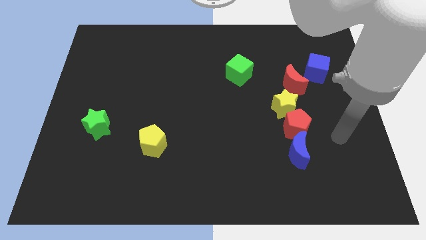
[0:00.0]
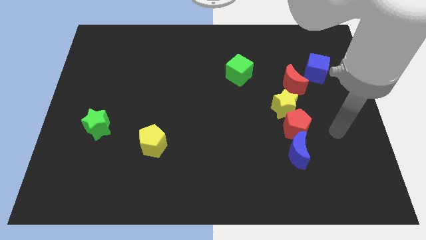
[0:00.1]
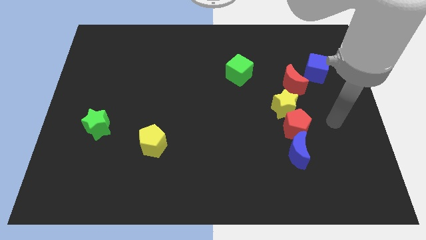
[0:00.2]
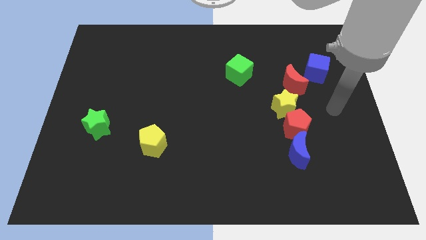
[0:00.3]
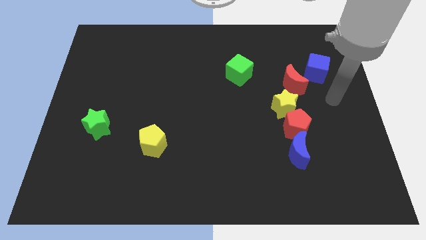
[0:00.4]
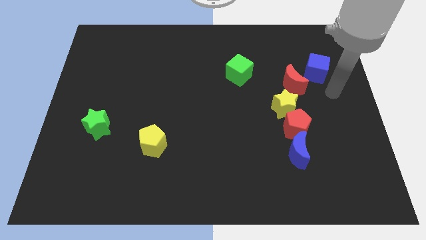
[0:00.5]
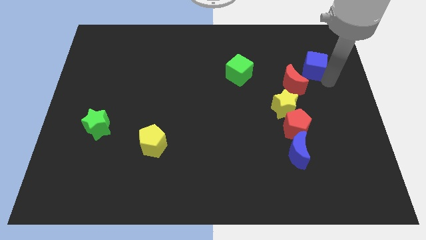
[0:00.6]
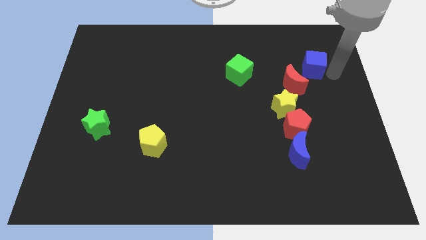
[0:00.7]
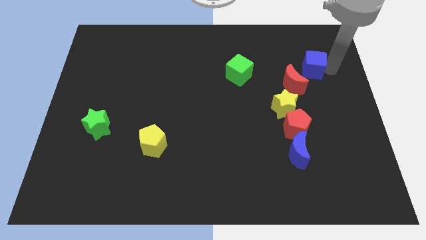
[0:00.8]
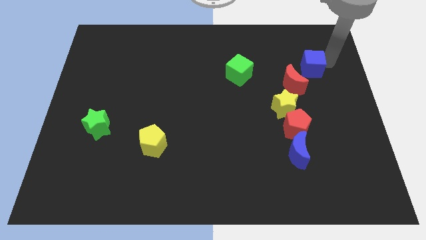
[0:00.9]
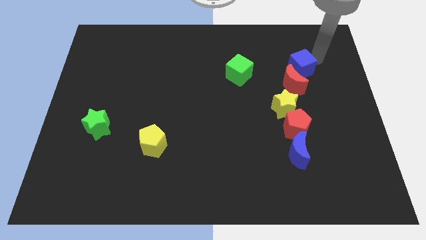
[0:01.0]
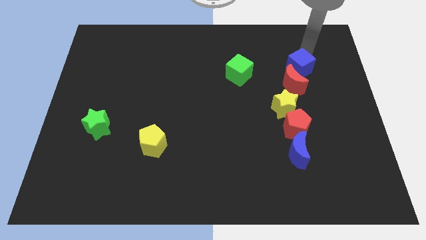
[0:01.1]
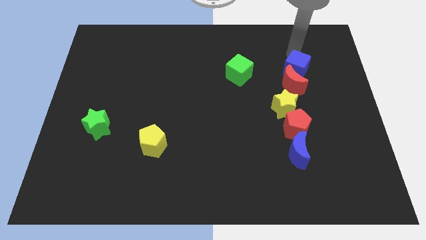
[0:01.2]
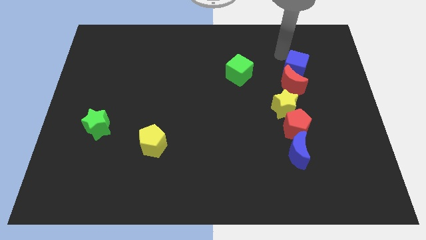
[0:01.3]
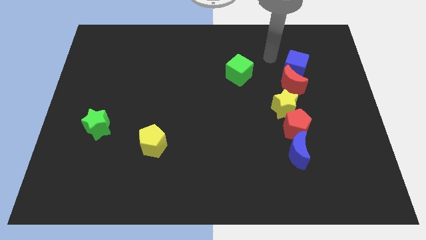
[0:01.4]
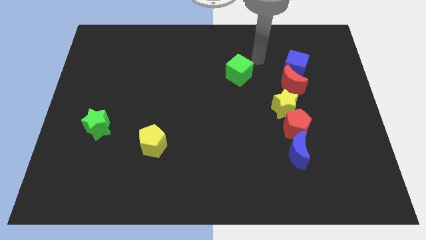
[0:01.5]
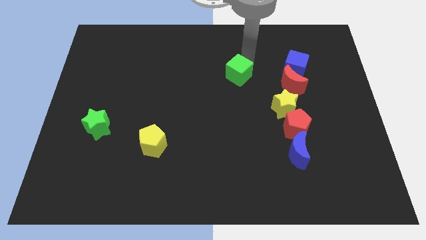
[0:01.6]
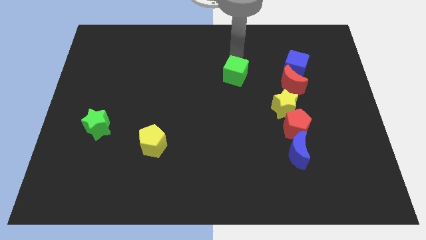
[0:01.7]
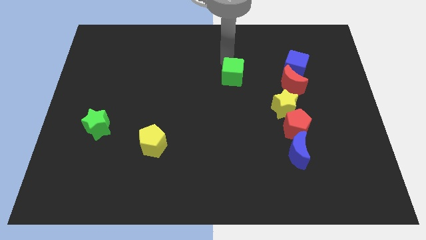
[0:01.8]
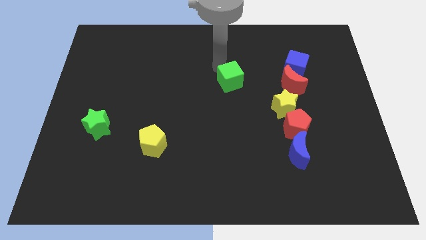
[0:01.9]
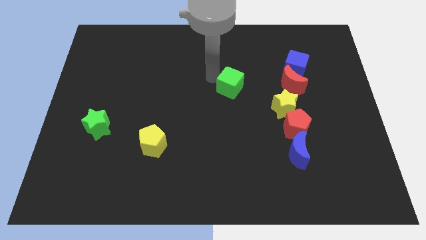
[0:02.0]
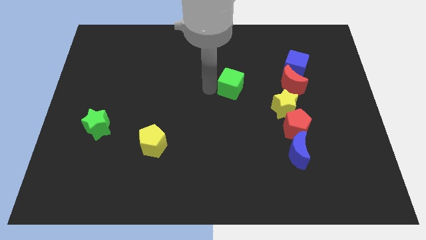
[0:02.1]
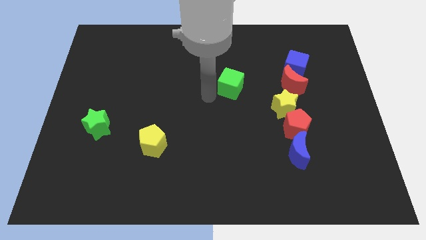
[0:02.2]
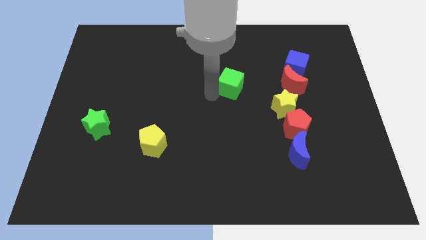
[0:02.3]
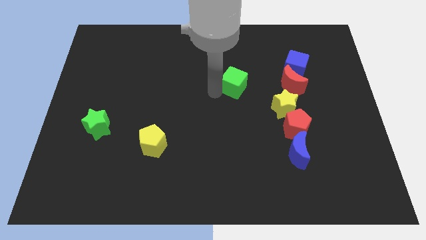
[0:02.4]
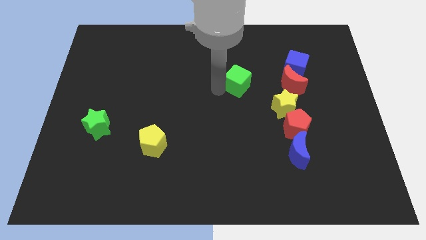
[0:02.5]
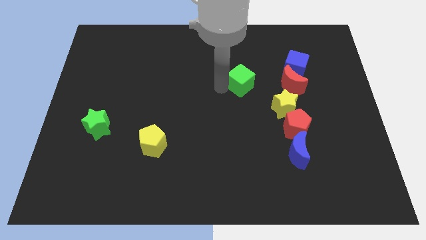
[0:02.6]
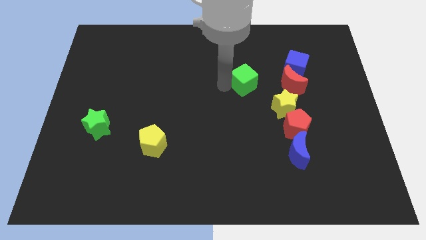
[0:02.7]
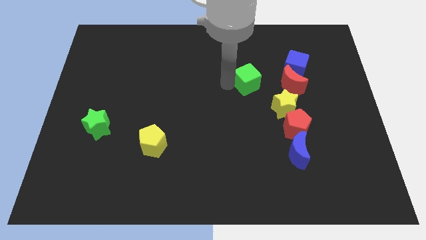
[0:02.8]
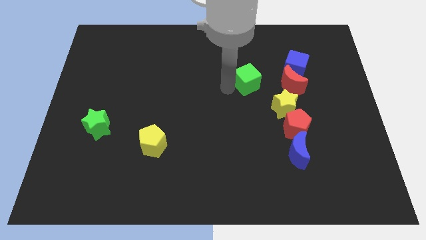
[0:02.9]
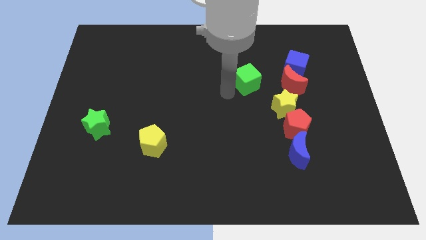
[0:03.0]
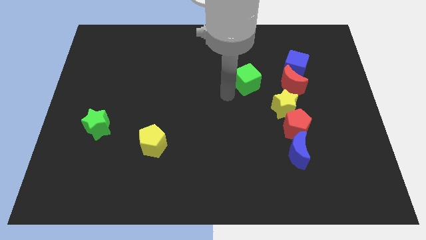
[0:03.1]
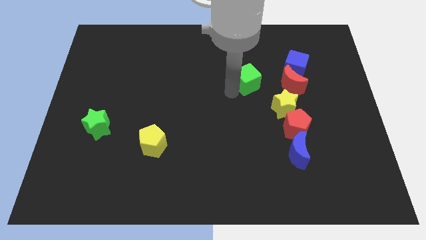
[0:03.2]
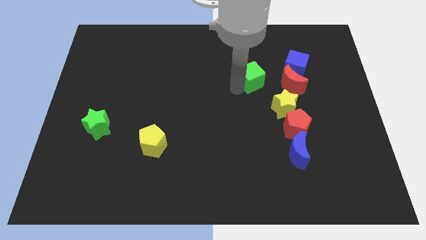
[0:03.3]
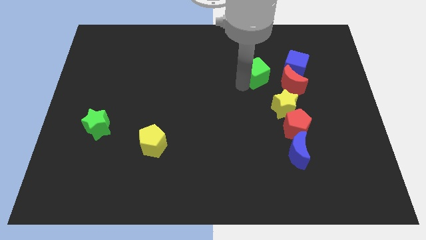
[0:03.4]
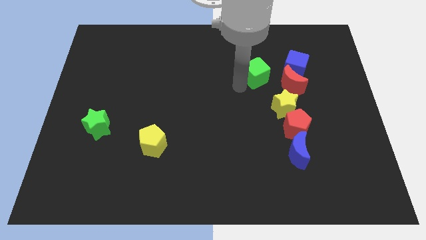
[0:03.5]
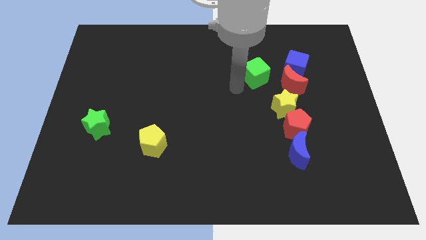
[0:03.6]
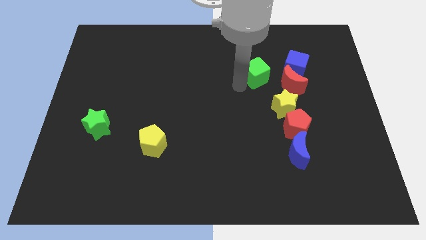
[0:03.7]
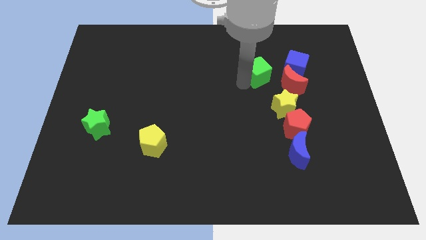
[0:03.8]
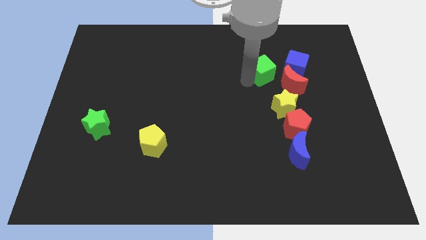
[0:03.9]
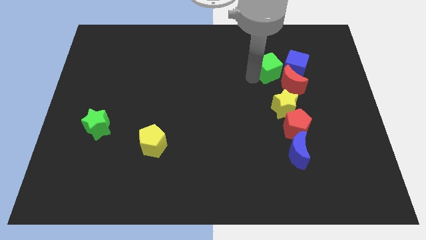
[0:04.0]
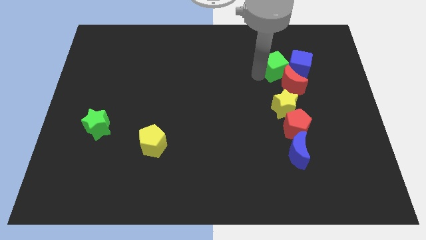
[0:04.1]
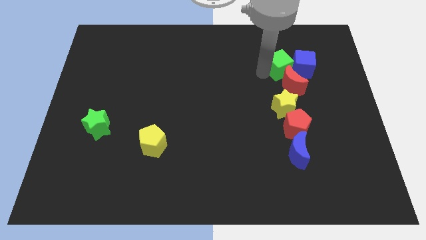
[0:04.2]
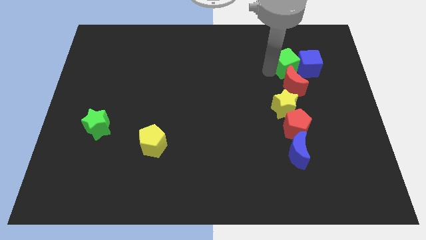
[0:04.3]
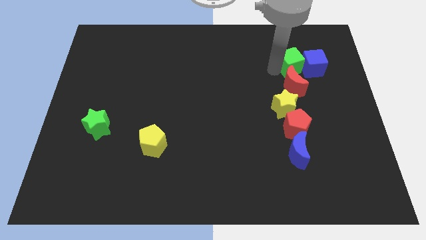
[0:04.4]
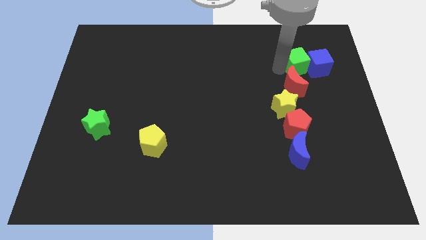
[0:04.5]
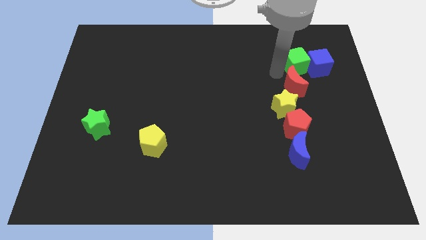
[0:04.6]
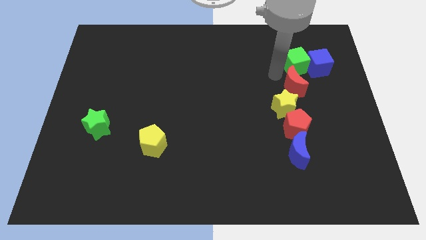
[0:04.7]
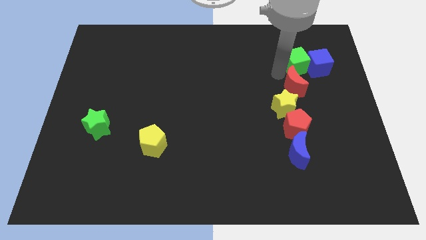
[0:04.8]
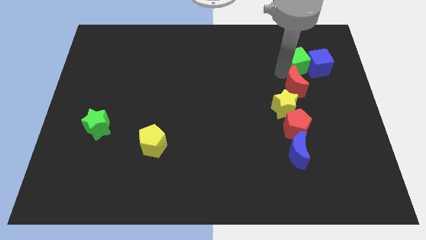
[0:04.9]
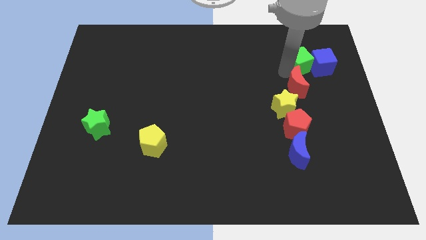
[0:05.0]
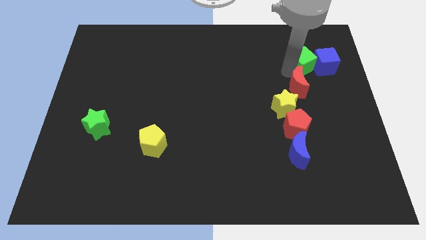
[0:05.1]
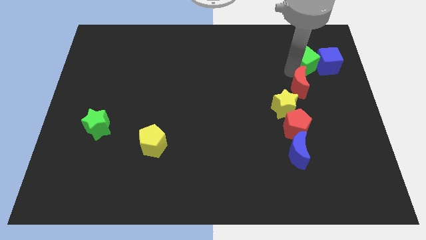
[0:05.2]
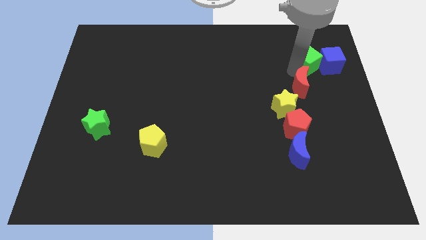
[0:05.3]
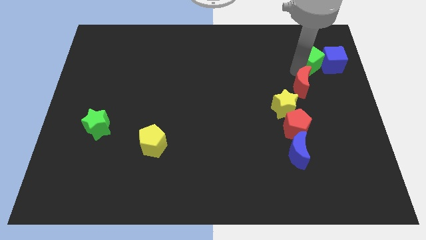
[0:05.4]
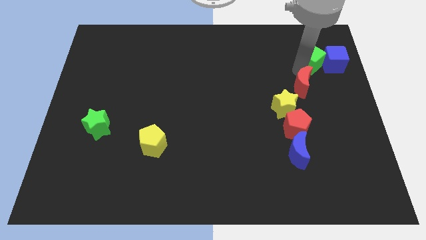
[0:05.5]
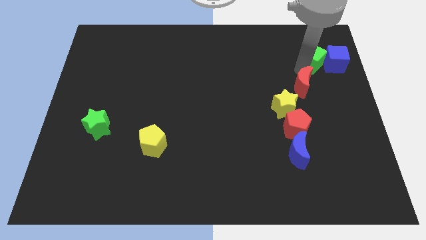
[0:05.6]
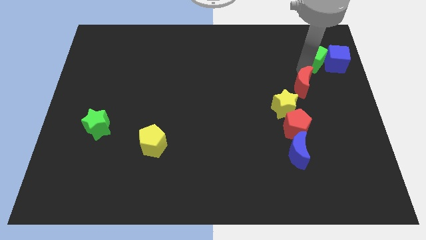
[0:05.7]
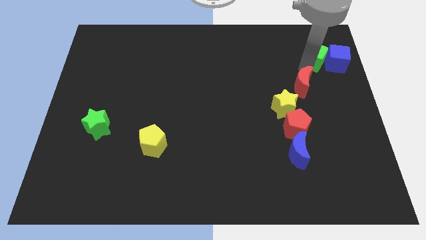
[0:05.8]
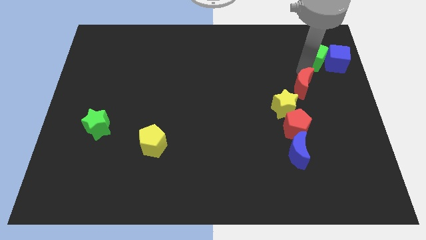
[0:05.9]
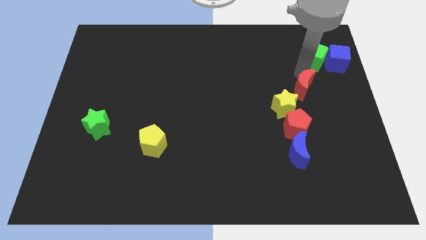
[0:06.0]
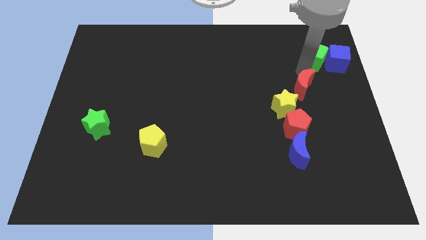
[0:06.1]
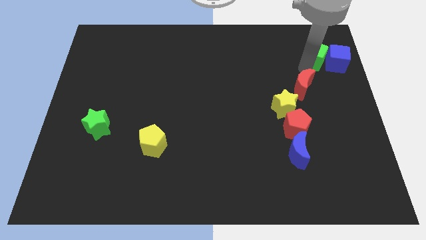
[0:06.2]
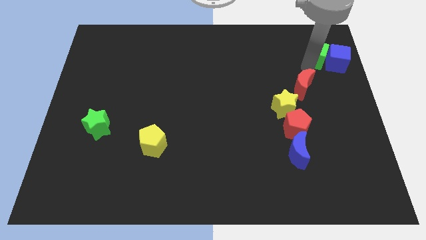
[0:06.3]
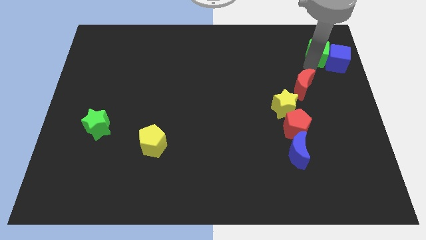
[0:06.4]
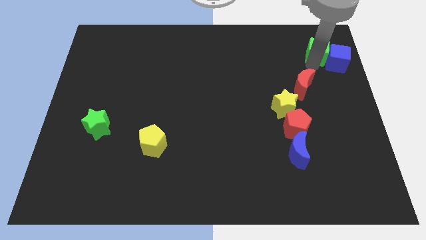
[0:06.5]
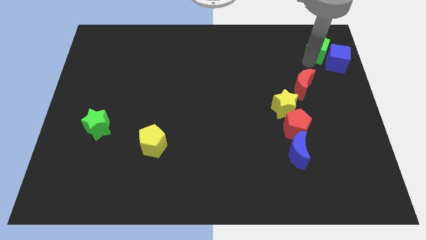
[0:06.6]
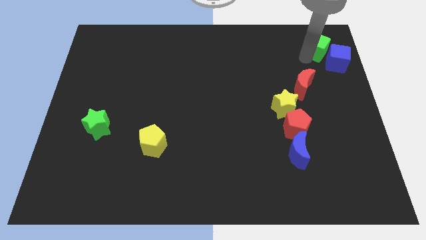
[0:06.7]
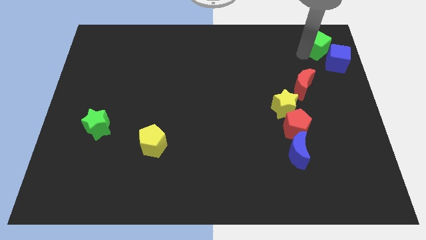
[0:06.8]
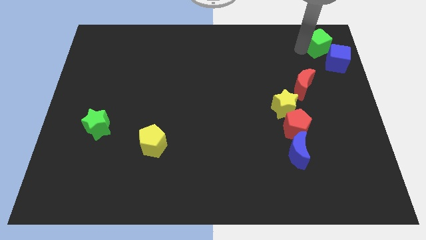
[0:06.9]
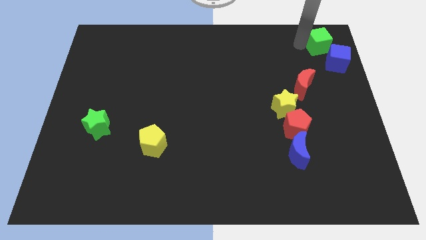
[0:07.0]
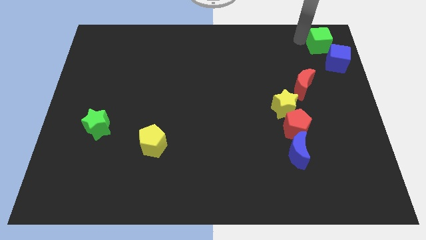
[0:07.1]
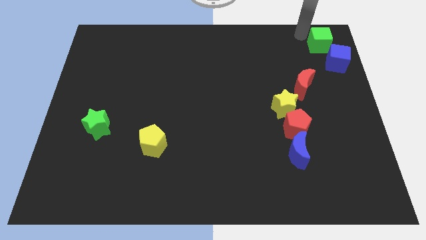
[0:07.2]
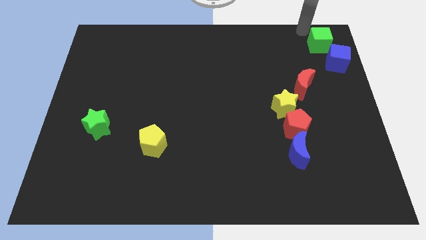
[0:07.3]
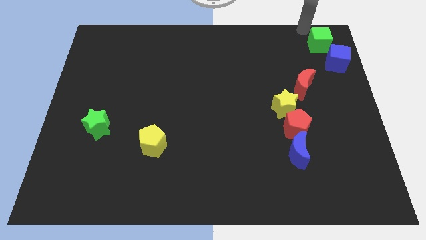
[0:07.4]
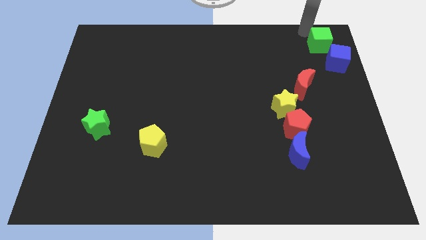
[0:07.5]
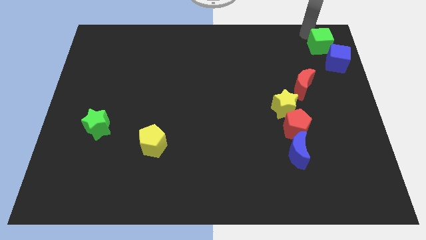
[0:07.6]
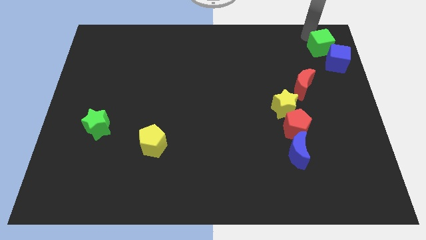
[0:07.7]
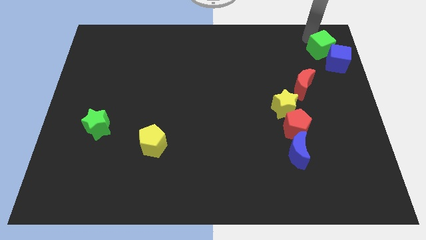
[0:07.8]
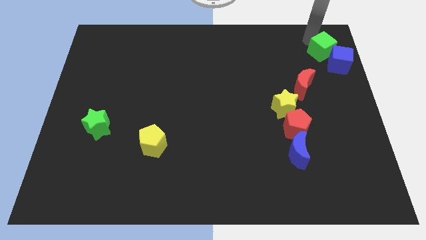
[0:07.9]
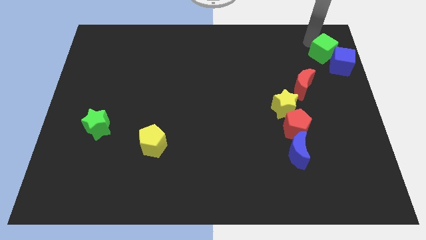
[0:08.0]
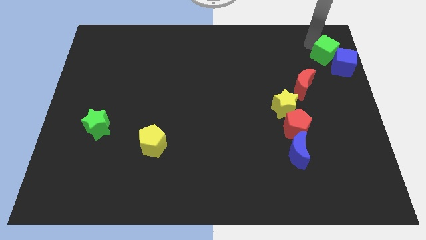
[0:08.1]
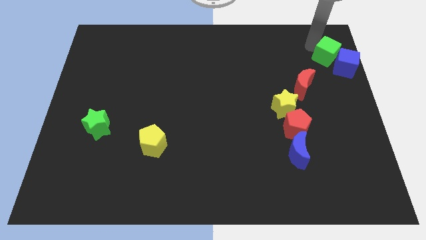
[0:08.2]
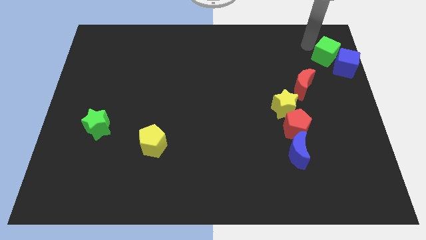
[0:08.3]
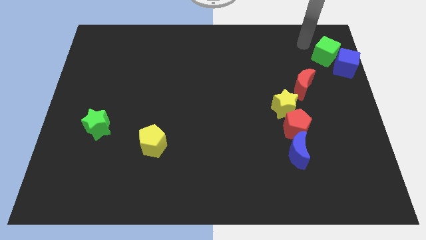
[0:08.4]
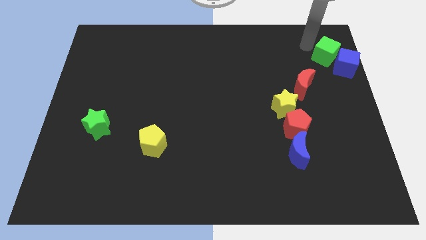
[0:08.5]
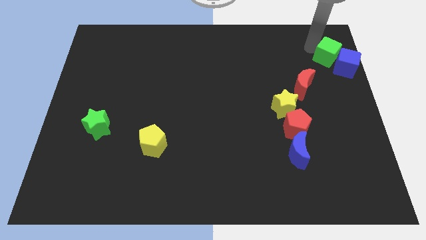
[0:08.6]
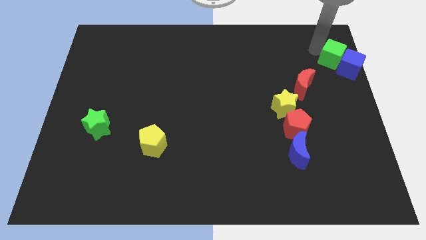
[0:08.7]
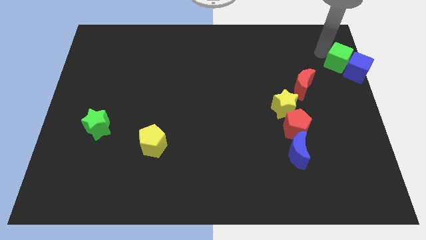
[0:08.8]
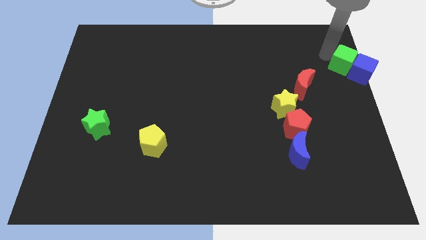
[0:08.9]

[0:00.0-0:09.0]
put the green cube to the right side
